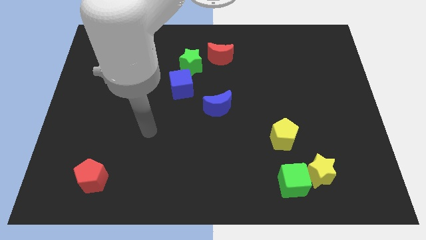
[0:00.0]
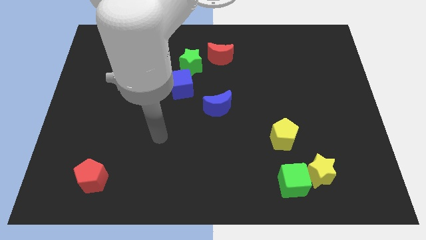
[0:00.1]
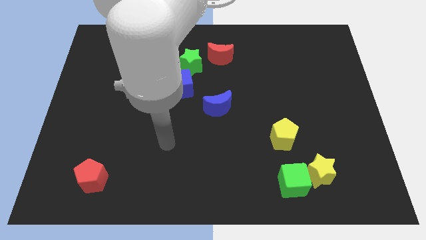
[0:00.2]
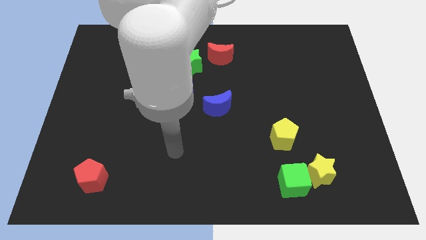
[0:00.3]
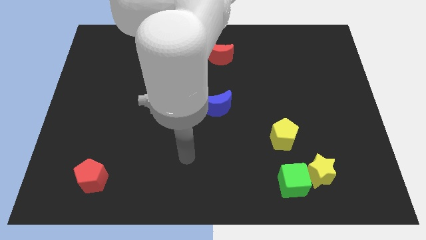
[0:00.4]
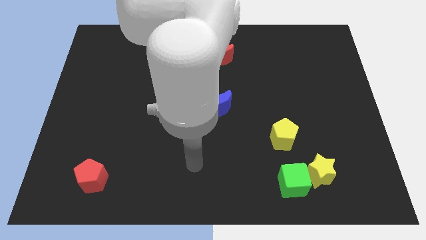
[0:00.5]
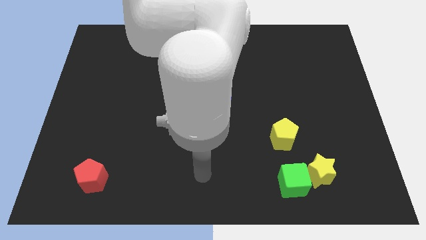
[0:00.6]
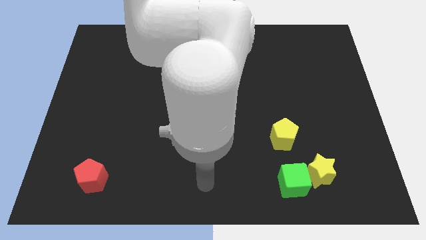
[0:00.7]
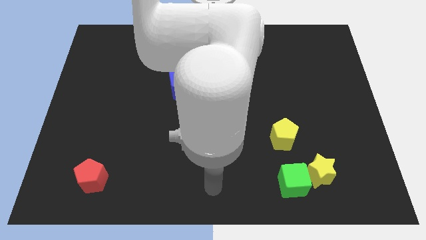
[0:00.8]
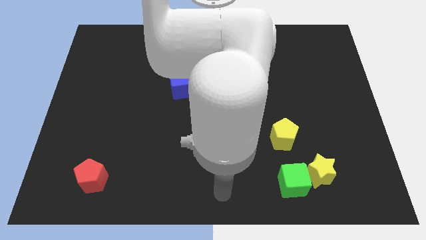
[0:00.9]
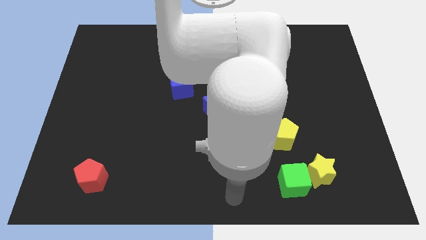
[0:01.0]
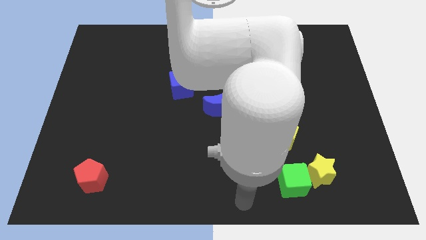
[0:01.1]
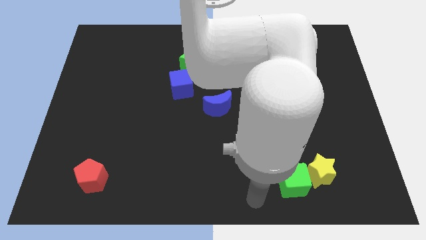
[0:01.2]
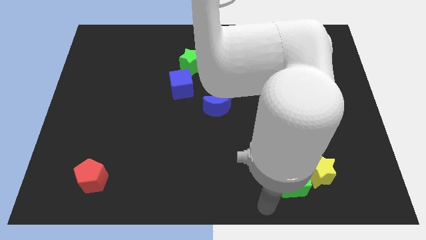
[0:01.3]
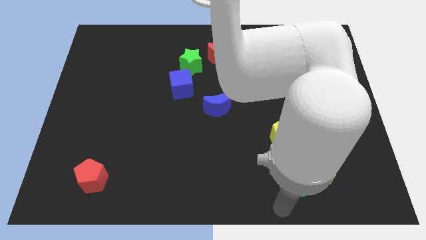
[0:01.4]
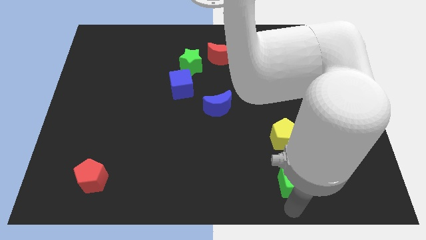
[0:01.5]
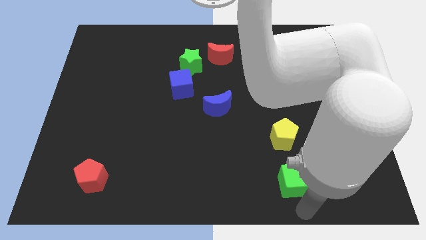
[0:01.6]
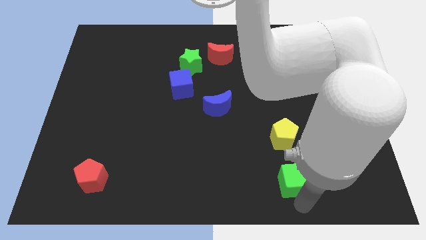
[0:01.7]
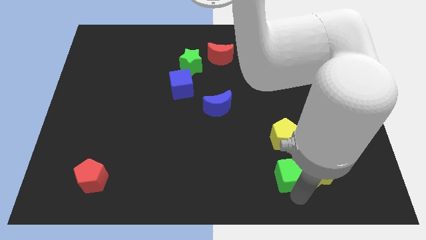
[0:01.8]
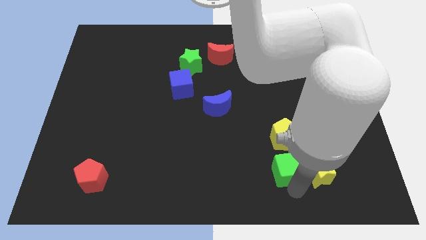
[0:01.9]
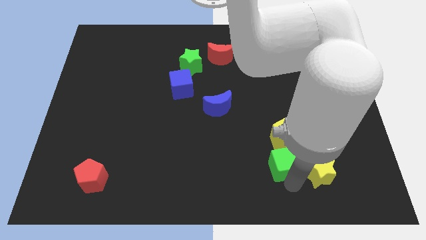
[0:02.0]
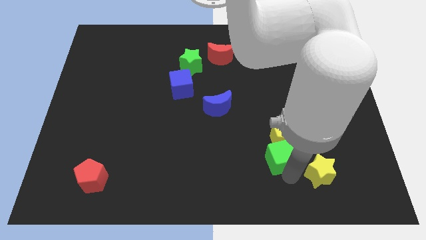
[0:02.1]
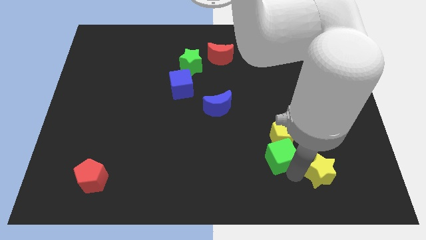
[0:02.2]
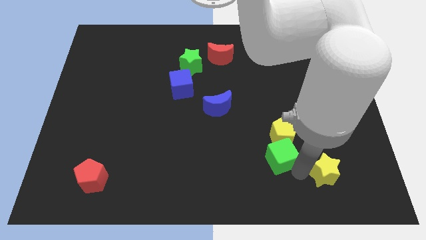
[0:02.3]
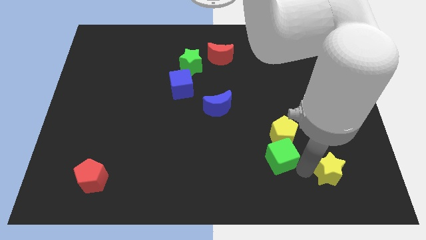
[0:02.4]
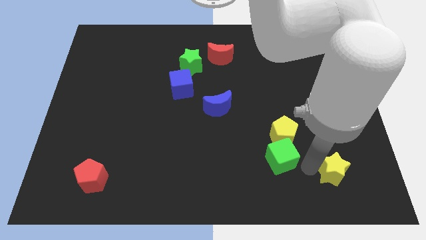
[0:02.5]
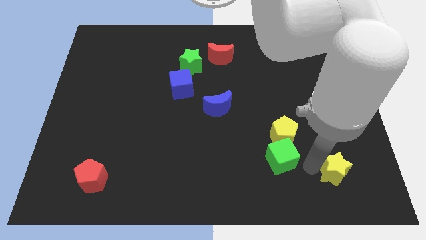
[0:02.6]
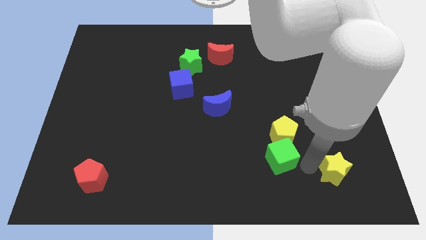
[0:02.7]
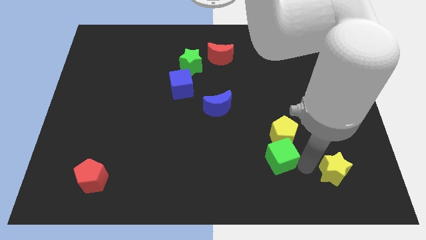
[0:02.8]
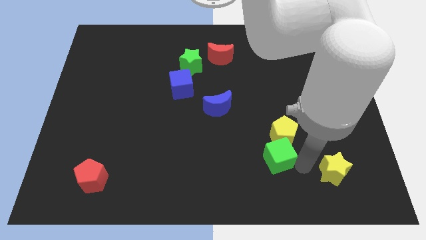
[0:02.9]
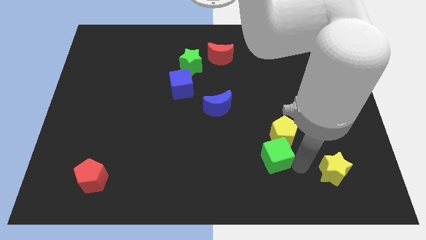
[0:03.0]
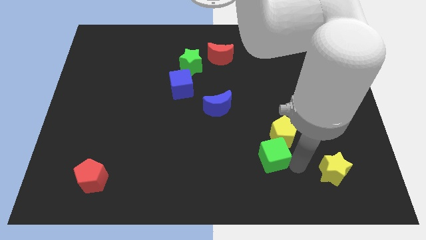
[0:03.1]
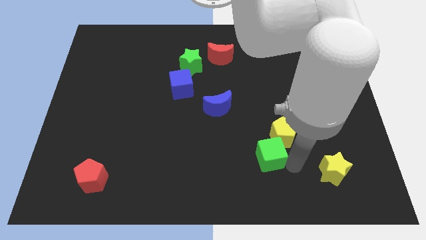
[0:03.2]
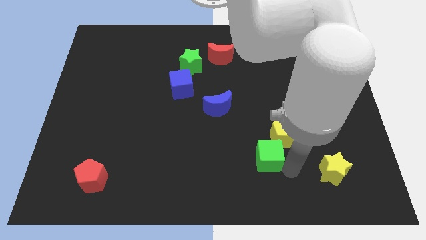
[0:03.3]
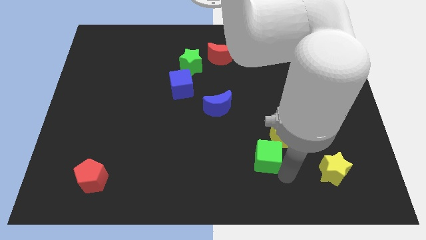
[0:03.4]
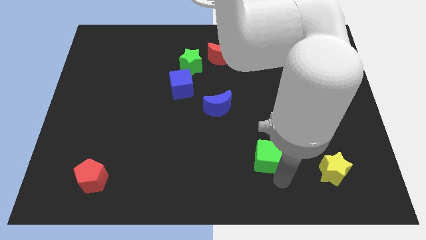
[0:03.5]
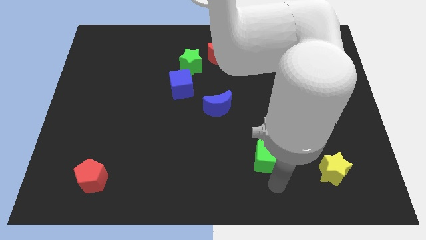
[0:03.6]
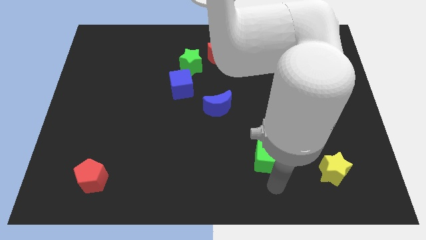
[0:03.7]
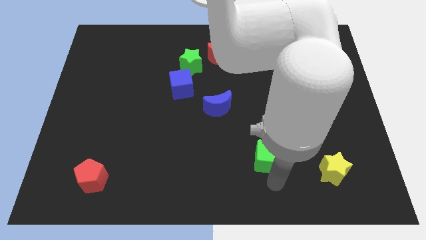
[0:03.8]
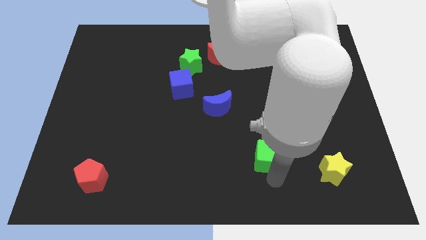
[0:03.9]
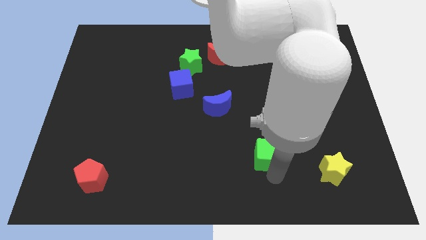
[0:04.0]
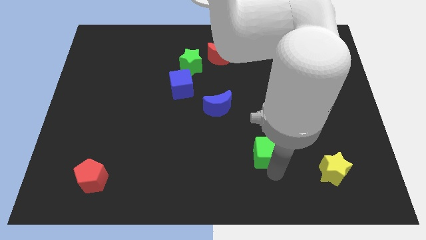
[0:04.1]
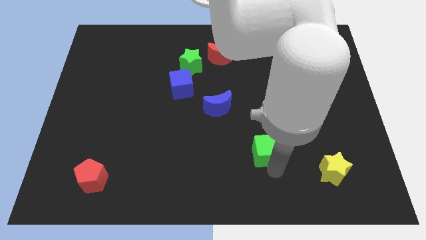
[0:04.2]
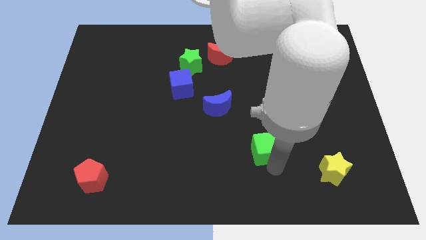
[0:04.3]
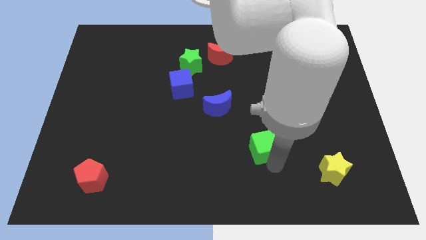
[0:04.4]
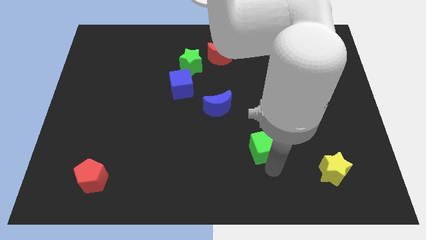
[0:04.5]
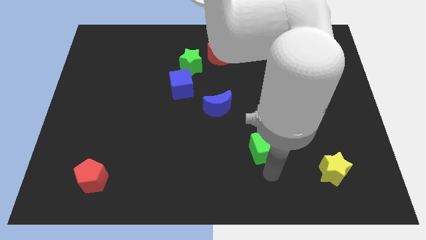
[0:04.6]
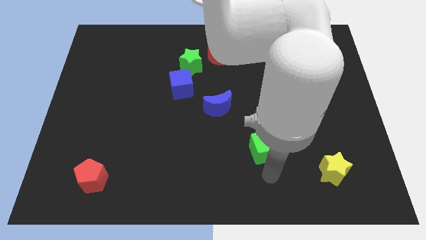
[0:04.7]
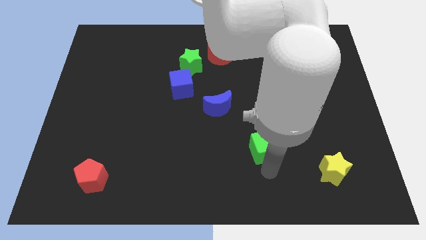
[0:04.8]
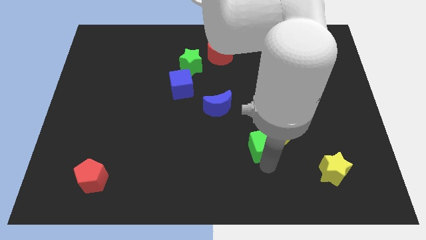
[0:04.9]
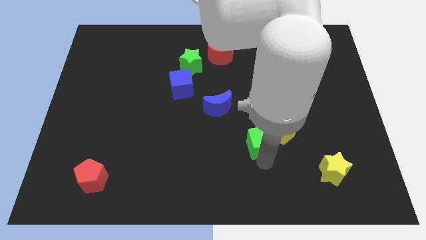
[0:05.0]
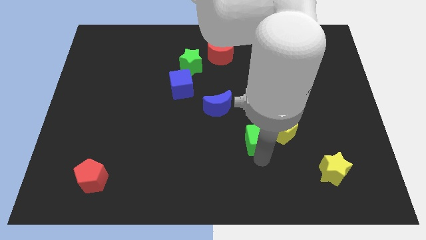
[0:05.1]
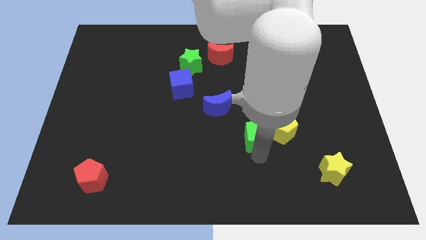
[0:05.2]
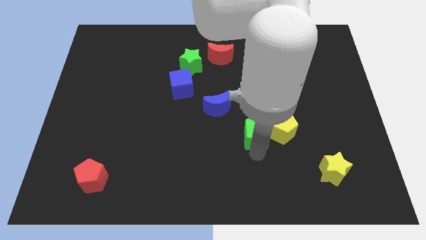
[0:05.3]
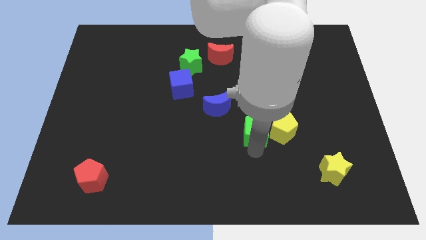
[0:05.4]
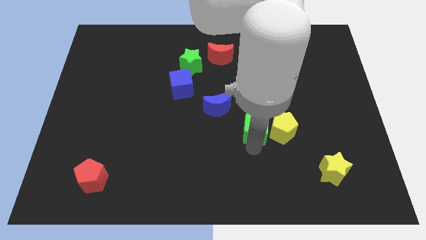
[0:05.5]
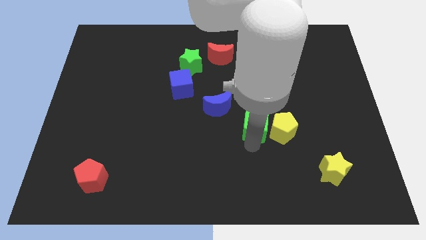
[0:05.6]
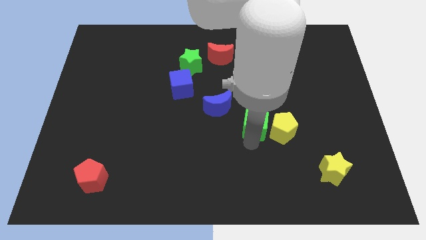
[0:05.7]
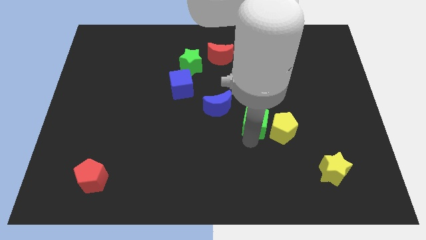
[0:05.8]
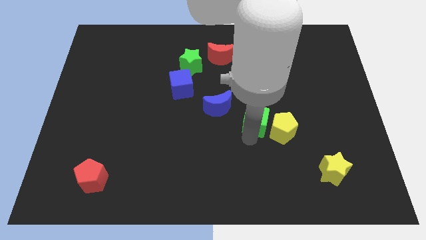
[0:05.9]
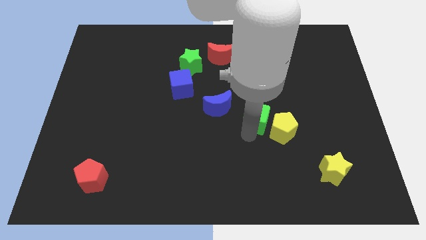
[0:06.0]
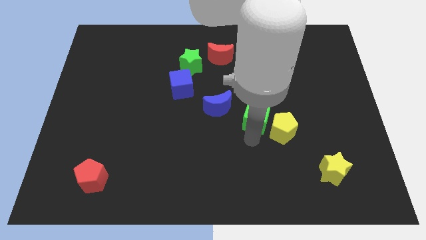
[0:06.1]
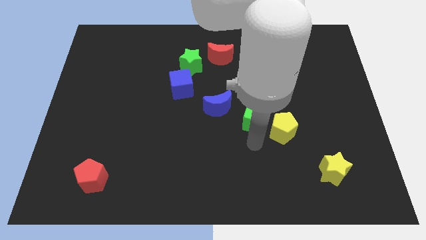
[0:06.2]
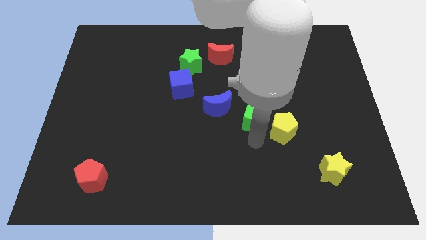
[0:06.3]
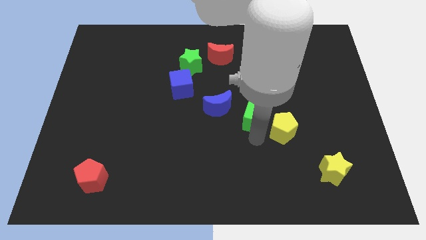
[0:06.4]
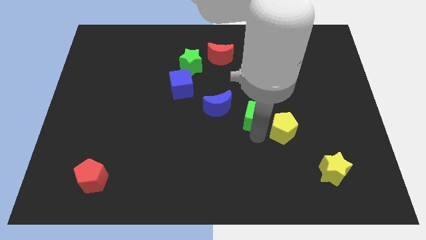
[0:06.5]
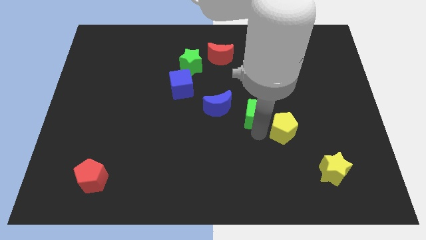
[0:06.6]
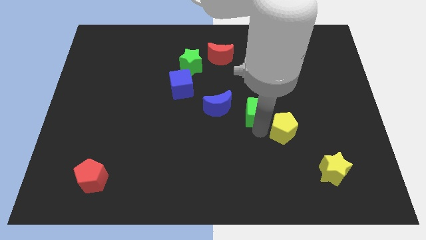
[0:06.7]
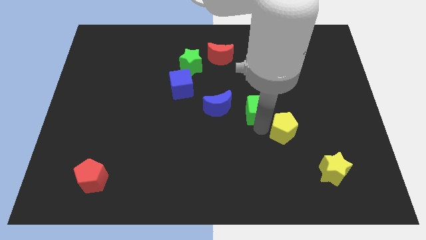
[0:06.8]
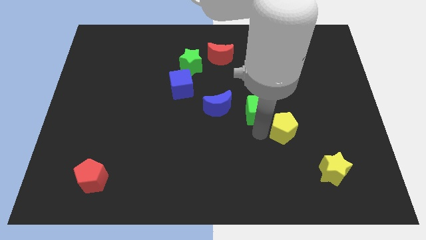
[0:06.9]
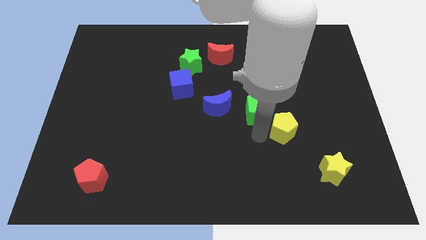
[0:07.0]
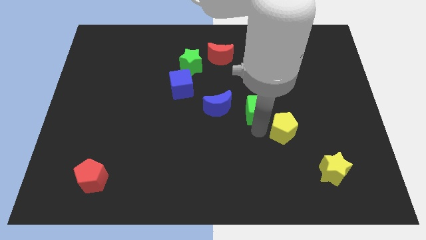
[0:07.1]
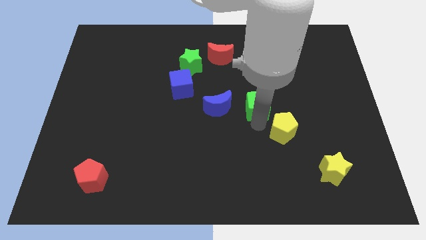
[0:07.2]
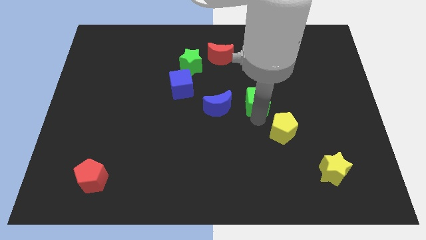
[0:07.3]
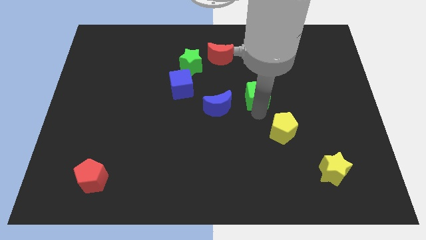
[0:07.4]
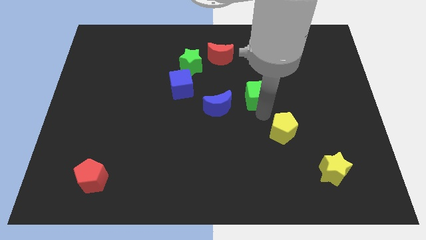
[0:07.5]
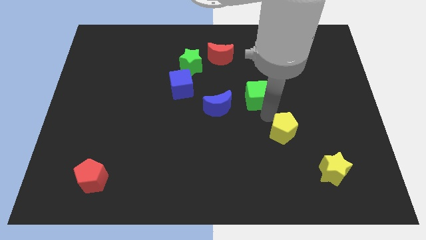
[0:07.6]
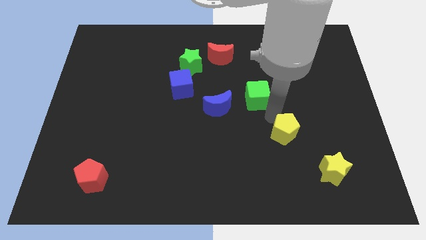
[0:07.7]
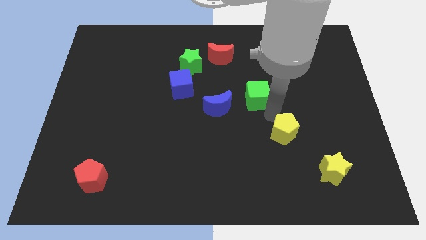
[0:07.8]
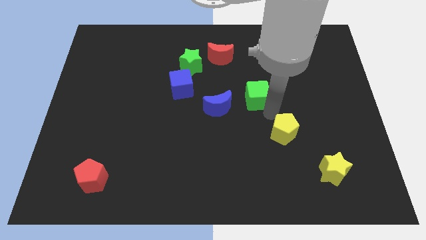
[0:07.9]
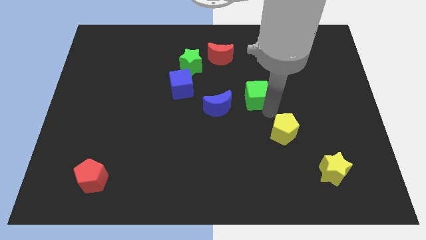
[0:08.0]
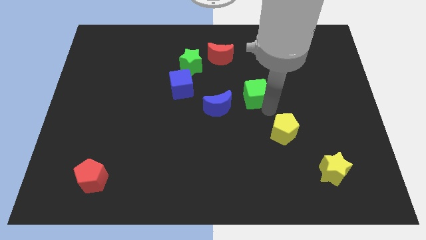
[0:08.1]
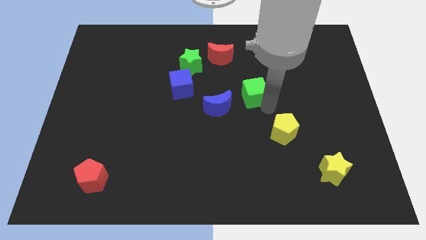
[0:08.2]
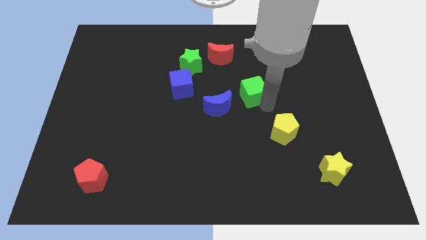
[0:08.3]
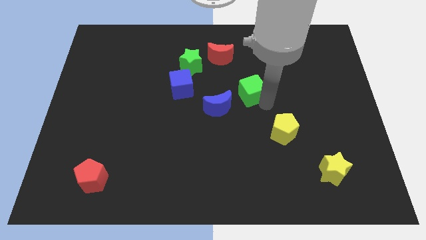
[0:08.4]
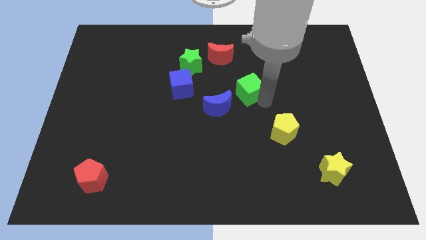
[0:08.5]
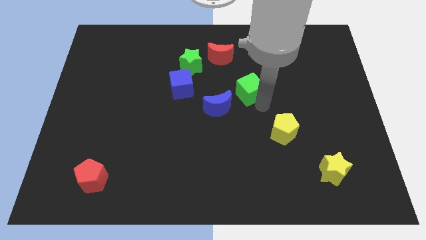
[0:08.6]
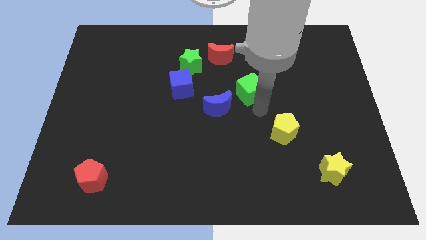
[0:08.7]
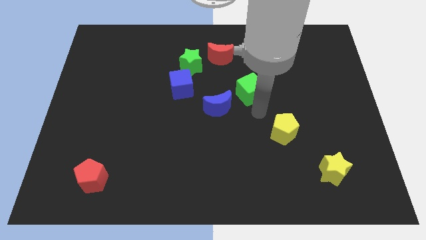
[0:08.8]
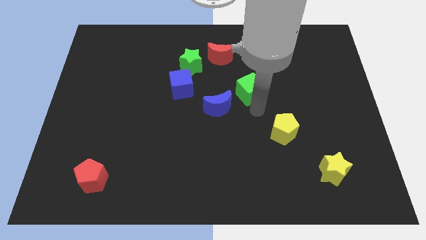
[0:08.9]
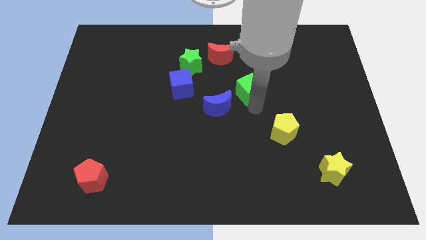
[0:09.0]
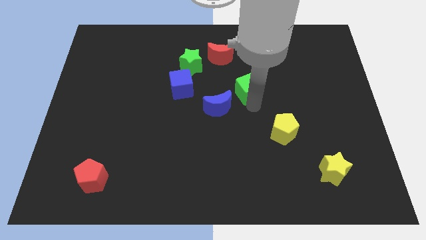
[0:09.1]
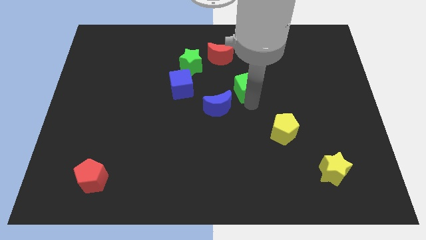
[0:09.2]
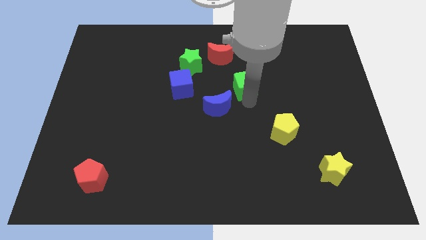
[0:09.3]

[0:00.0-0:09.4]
move the green cube to the bottom right side of the red moon
